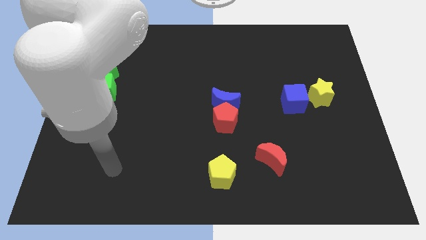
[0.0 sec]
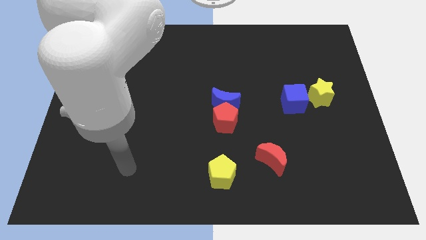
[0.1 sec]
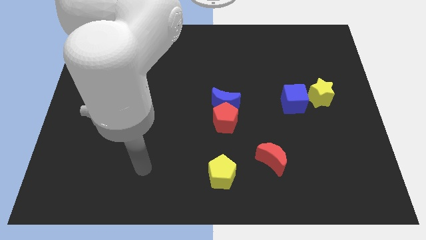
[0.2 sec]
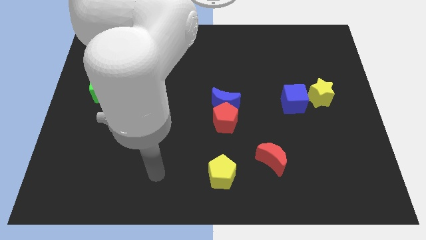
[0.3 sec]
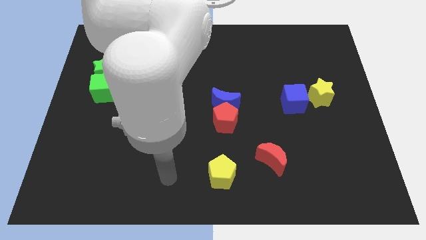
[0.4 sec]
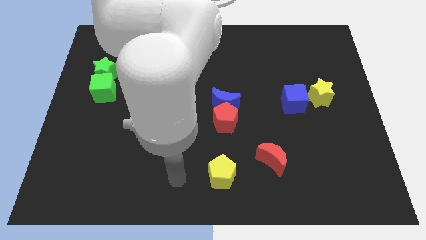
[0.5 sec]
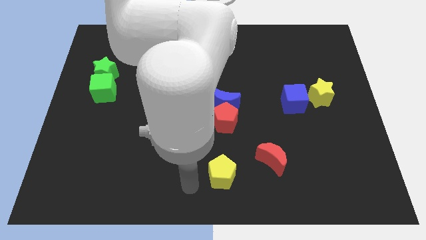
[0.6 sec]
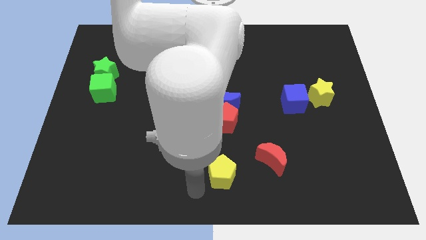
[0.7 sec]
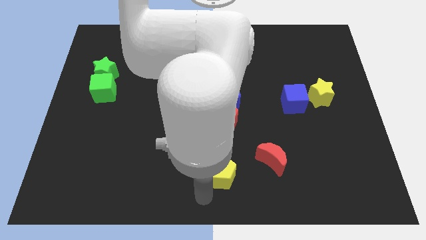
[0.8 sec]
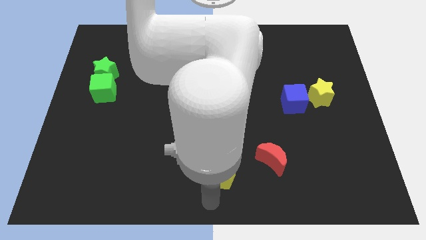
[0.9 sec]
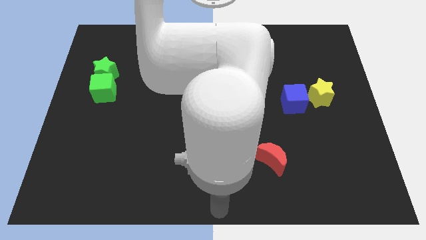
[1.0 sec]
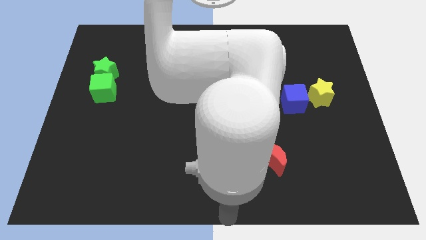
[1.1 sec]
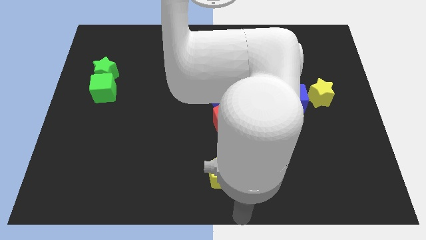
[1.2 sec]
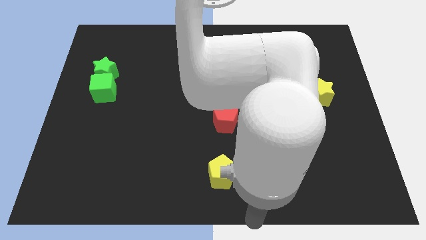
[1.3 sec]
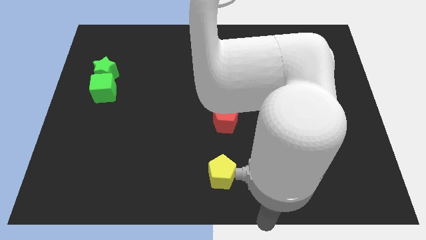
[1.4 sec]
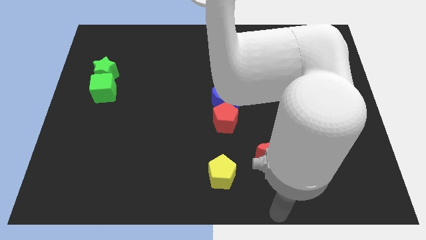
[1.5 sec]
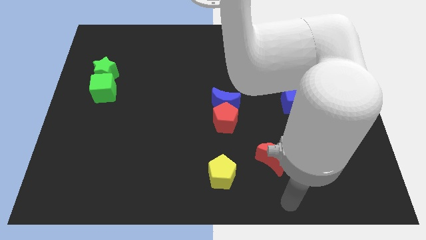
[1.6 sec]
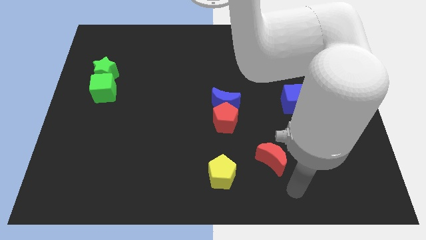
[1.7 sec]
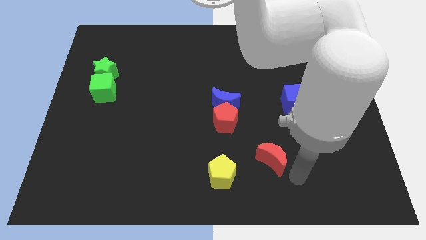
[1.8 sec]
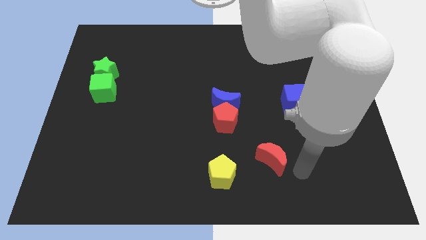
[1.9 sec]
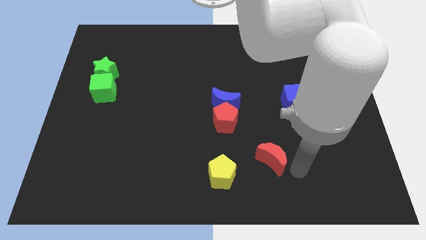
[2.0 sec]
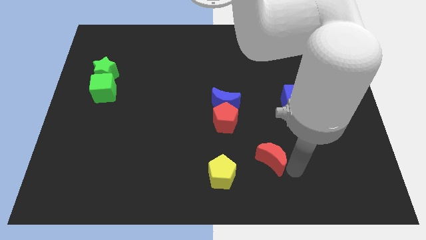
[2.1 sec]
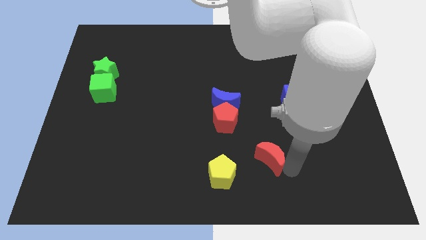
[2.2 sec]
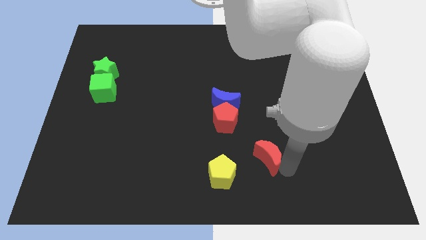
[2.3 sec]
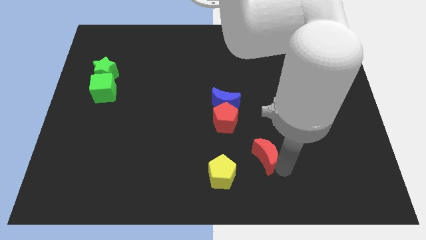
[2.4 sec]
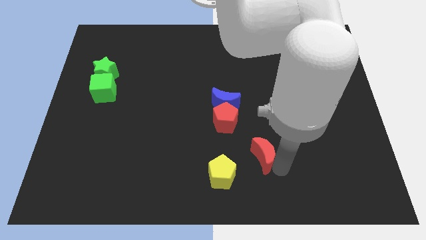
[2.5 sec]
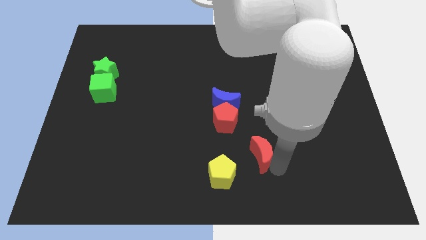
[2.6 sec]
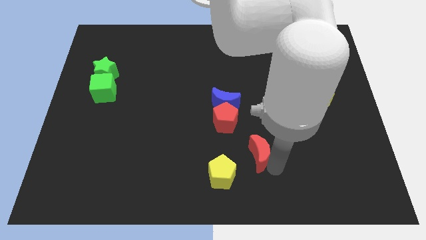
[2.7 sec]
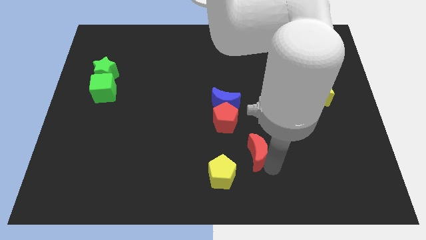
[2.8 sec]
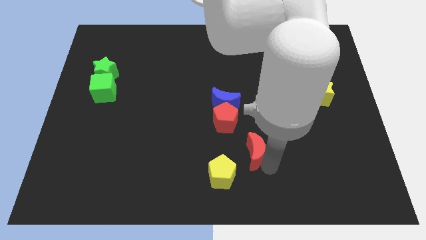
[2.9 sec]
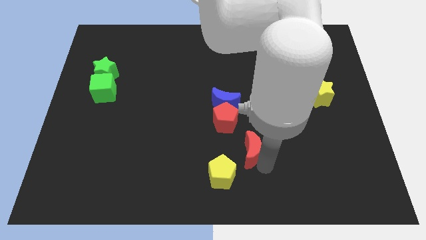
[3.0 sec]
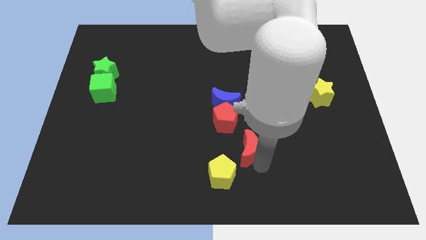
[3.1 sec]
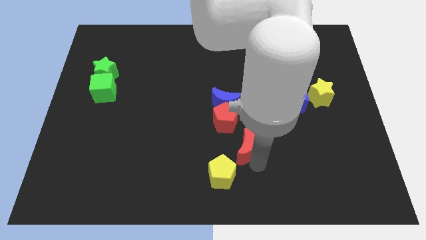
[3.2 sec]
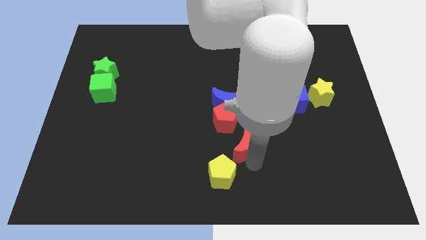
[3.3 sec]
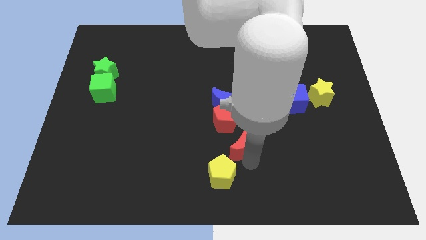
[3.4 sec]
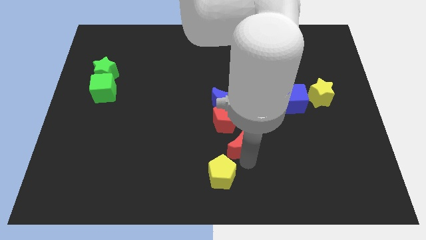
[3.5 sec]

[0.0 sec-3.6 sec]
slide the red moon upwards and to the left somewhat

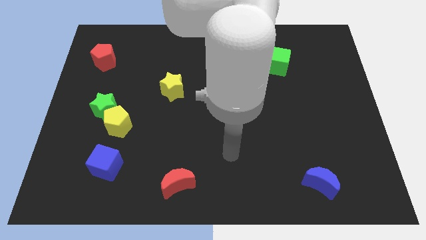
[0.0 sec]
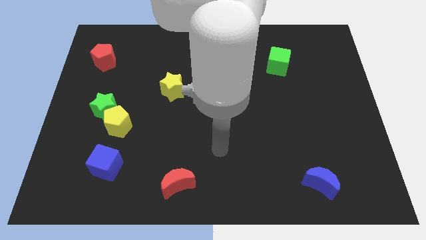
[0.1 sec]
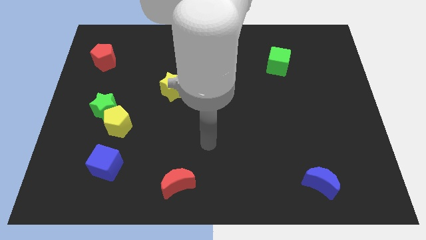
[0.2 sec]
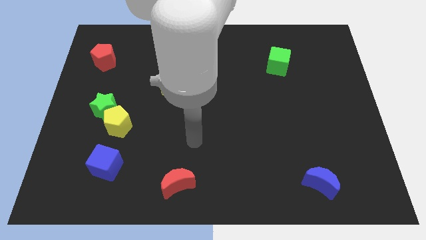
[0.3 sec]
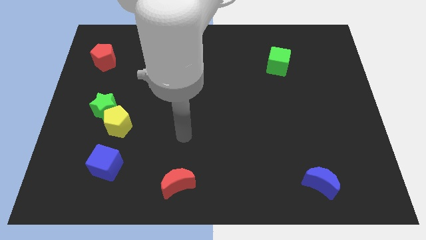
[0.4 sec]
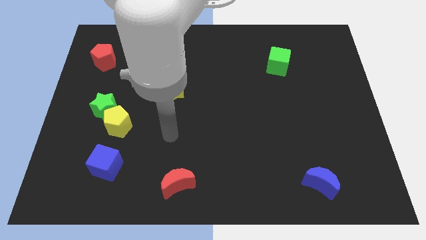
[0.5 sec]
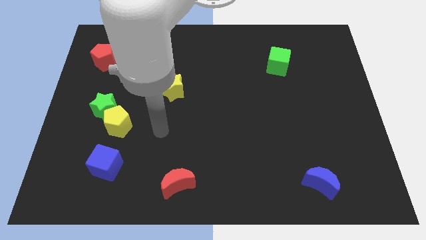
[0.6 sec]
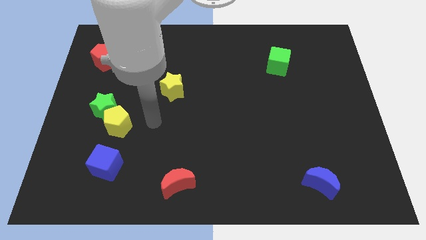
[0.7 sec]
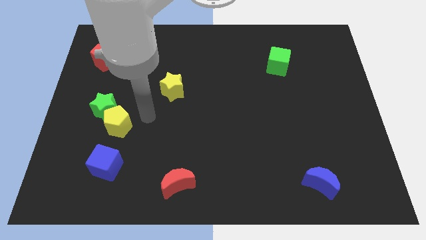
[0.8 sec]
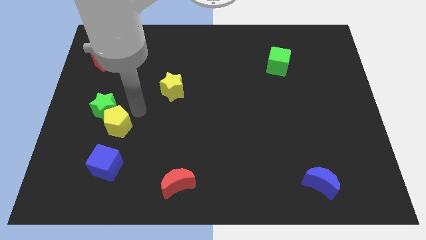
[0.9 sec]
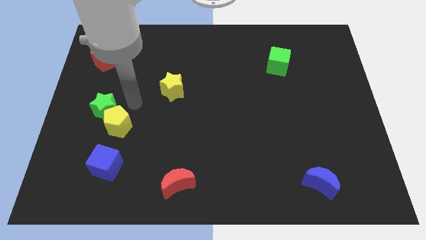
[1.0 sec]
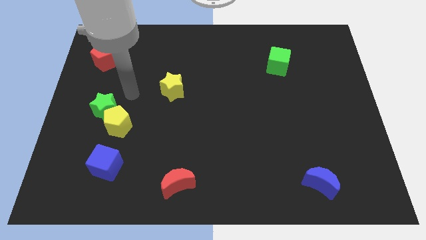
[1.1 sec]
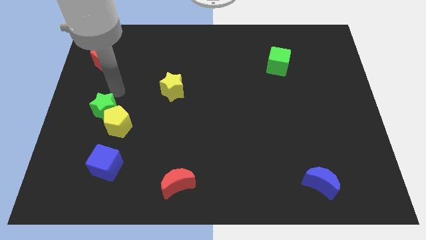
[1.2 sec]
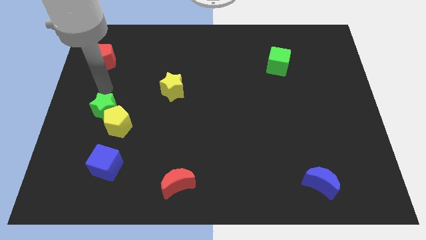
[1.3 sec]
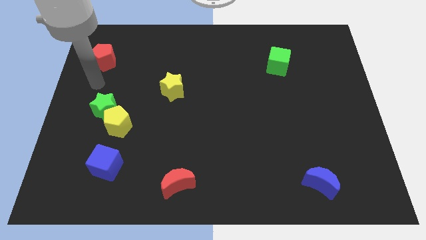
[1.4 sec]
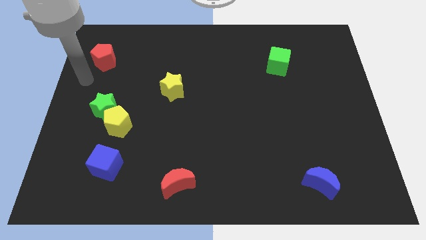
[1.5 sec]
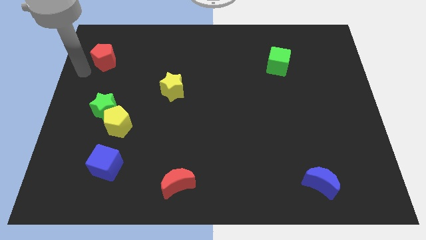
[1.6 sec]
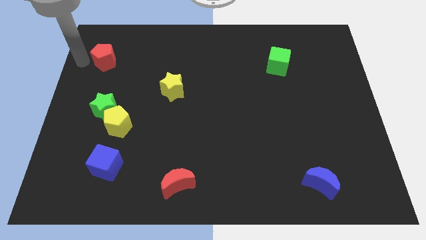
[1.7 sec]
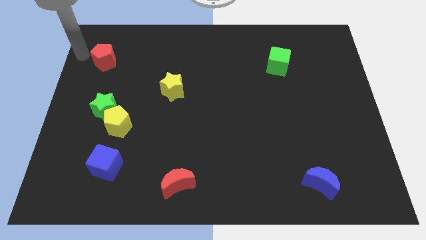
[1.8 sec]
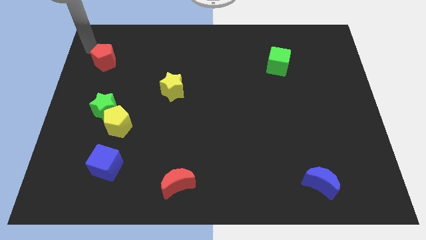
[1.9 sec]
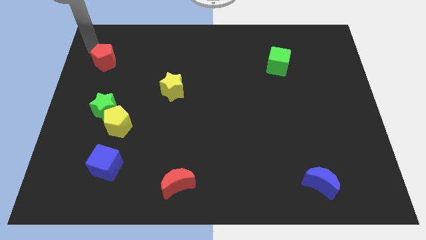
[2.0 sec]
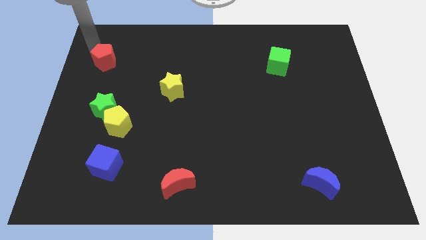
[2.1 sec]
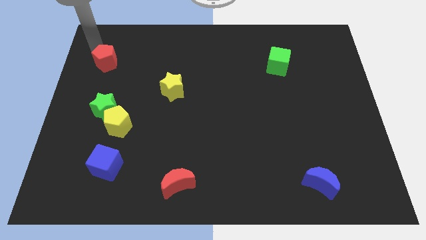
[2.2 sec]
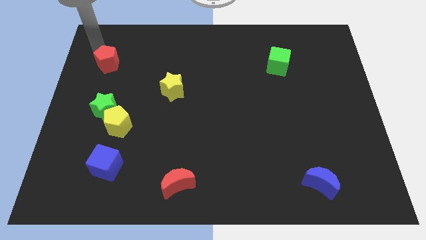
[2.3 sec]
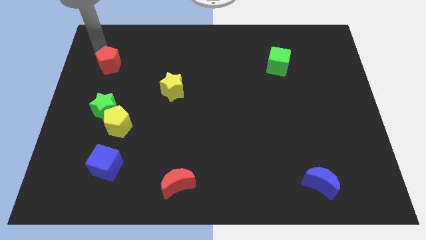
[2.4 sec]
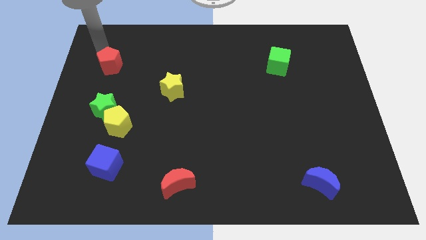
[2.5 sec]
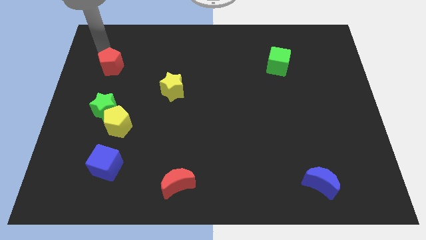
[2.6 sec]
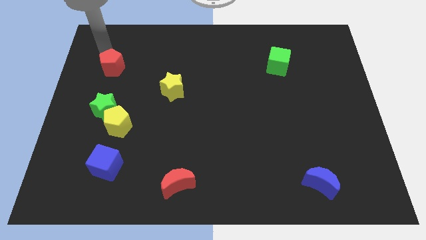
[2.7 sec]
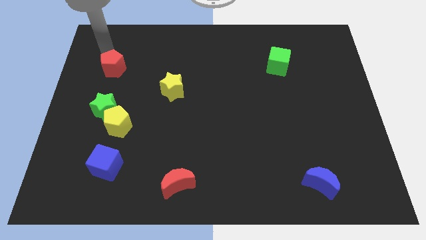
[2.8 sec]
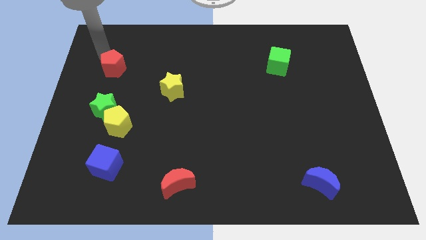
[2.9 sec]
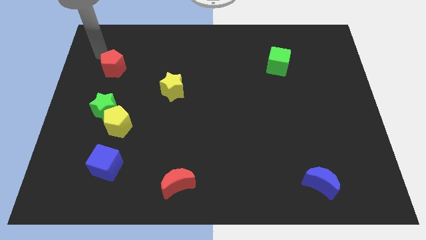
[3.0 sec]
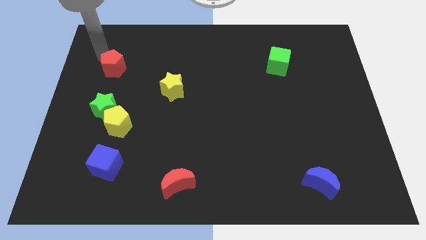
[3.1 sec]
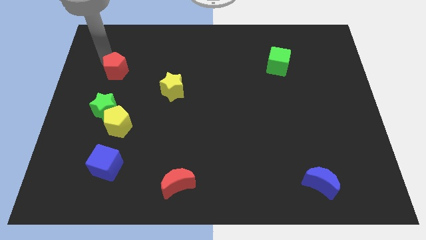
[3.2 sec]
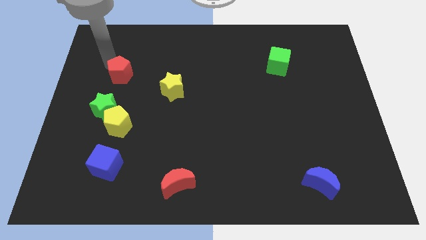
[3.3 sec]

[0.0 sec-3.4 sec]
slightly move the red pentagon down and right

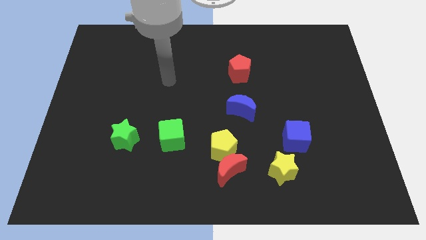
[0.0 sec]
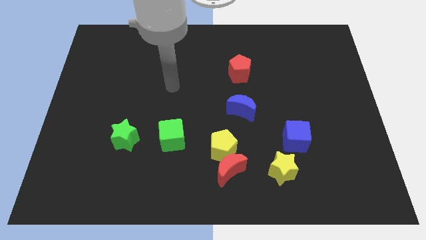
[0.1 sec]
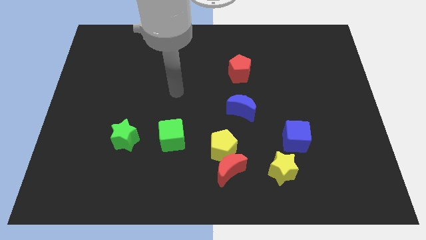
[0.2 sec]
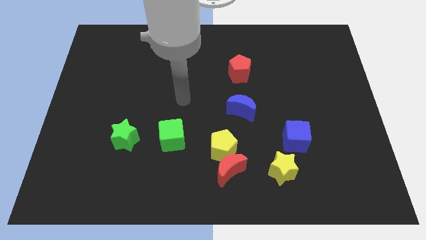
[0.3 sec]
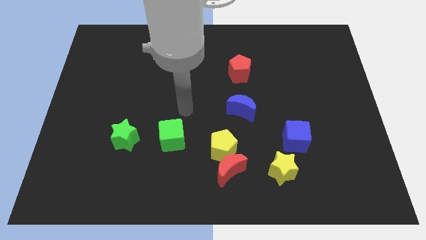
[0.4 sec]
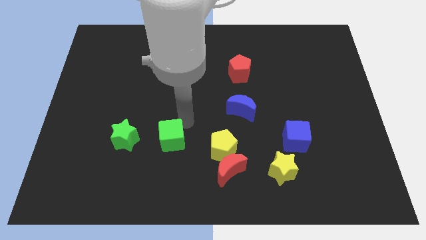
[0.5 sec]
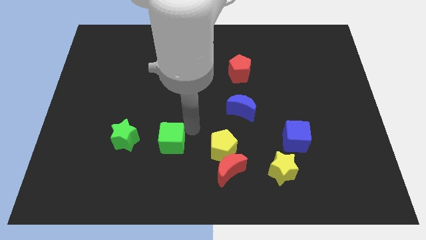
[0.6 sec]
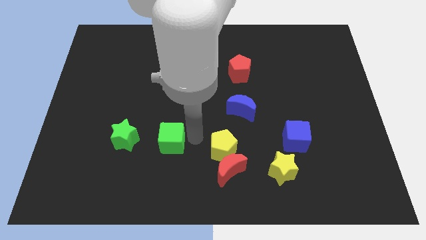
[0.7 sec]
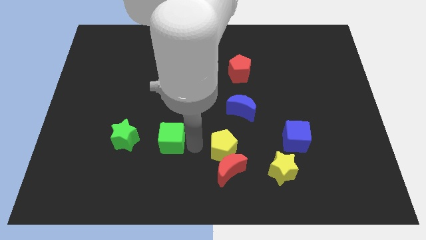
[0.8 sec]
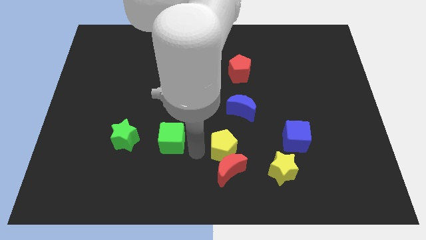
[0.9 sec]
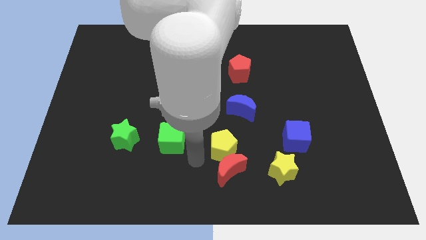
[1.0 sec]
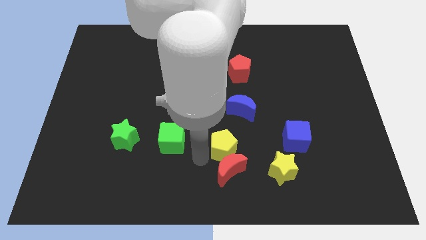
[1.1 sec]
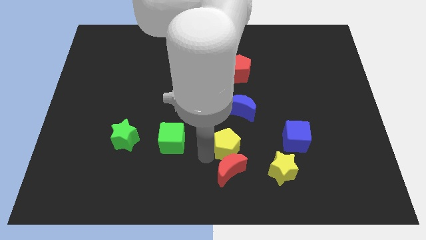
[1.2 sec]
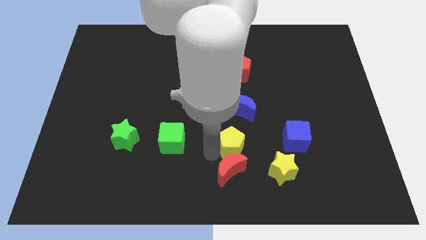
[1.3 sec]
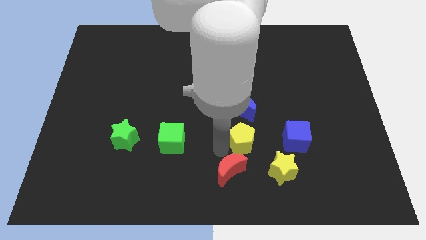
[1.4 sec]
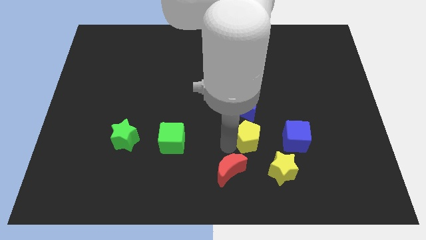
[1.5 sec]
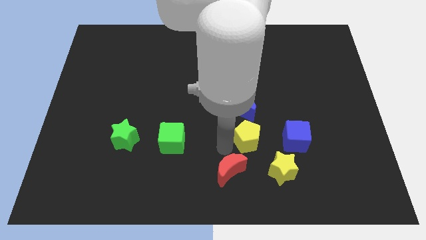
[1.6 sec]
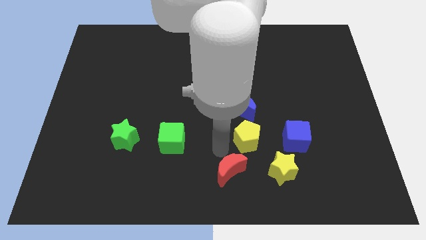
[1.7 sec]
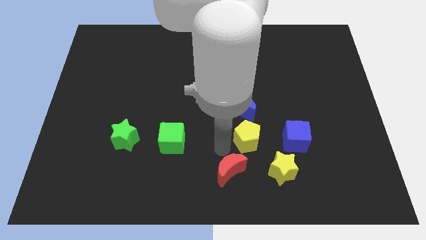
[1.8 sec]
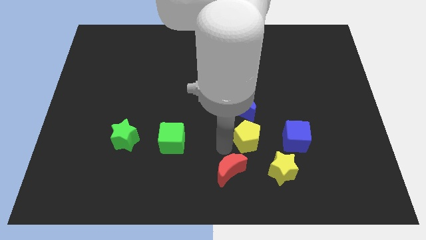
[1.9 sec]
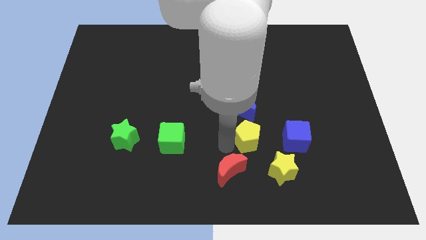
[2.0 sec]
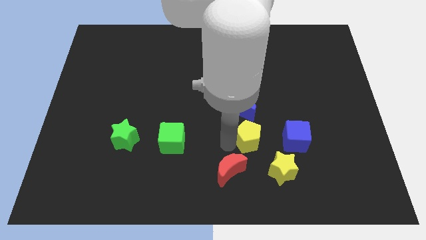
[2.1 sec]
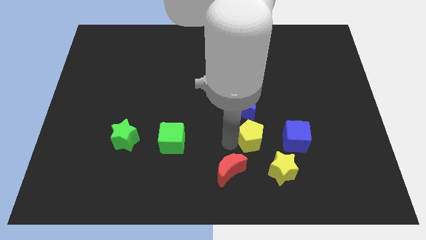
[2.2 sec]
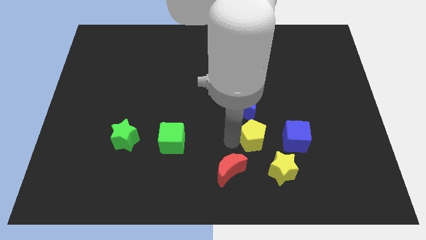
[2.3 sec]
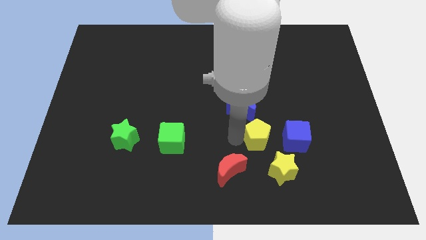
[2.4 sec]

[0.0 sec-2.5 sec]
slightly push the yellow pentagon to the right
